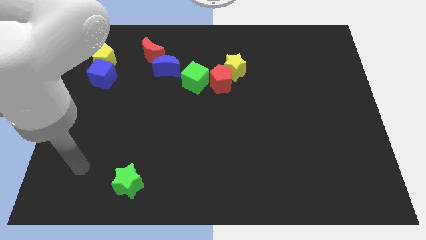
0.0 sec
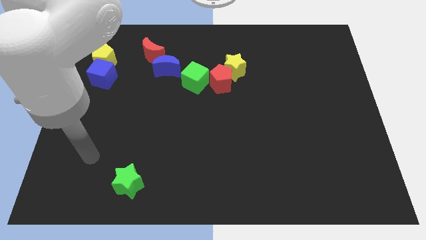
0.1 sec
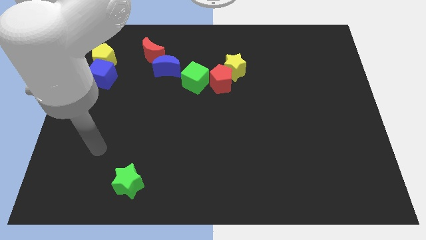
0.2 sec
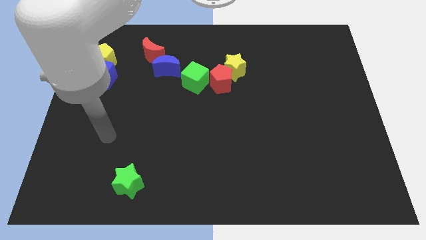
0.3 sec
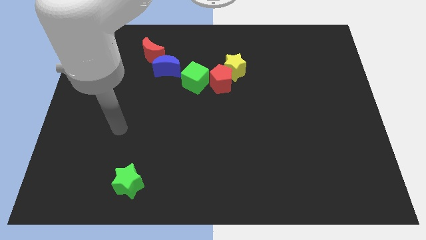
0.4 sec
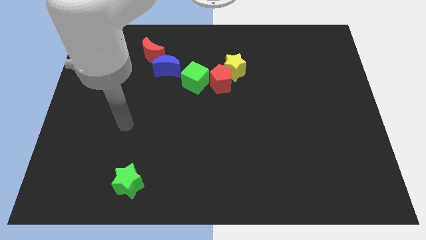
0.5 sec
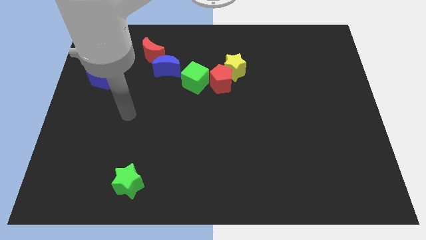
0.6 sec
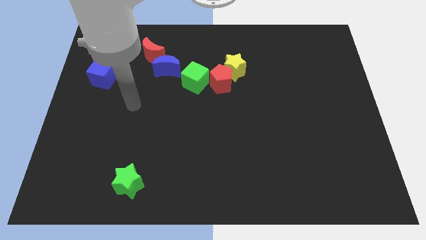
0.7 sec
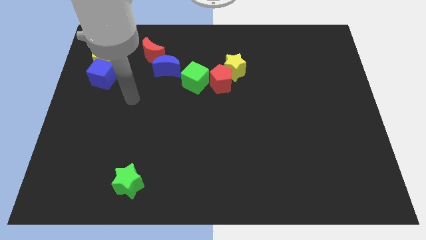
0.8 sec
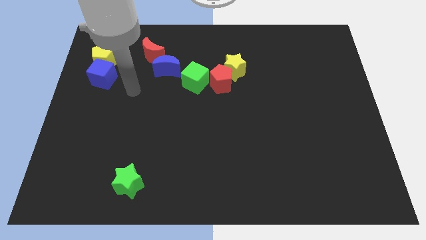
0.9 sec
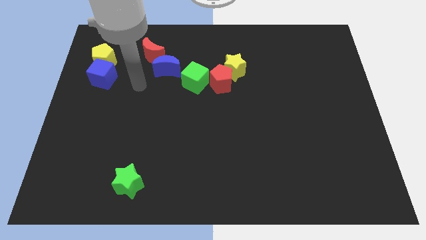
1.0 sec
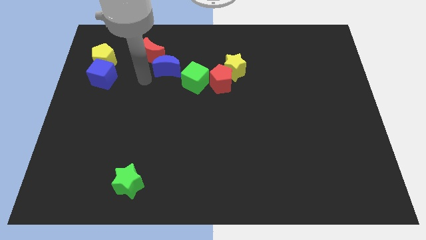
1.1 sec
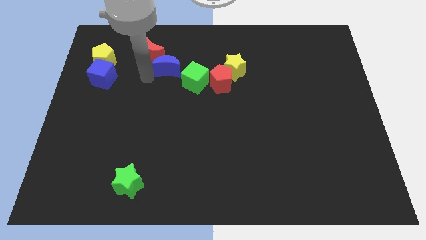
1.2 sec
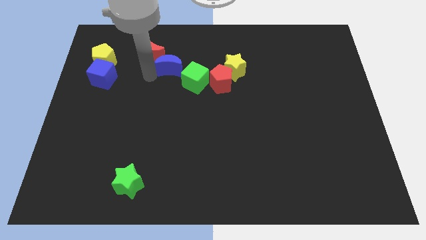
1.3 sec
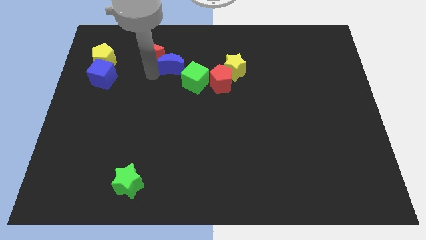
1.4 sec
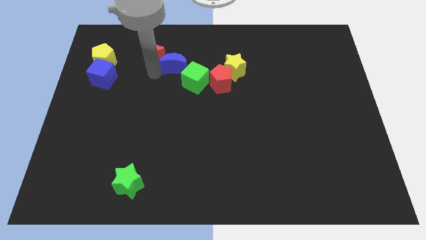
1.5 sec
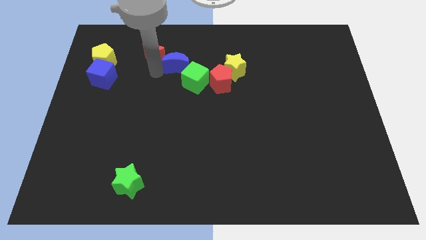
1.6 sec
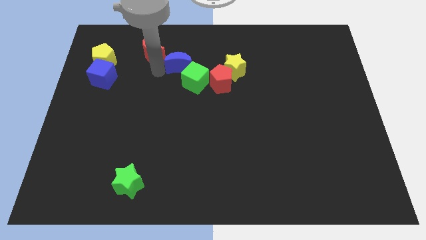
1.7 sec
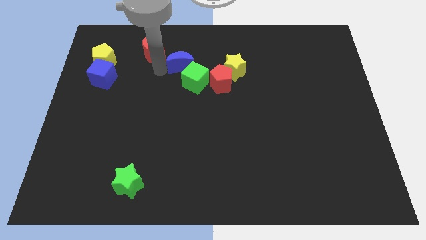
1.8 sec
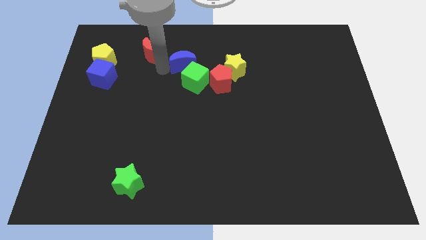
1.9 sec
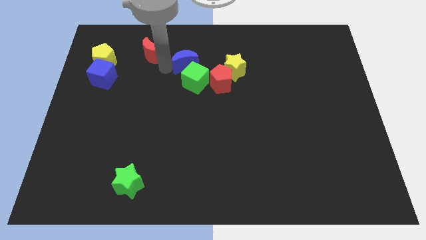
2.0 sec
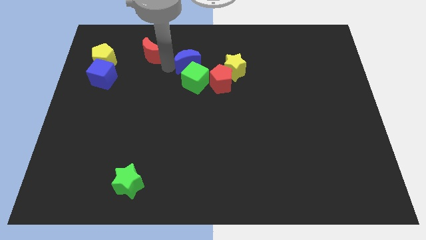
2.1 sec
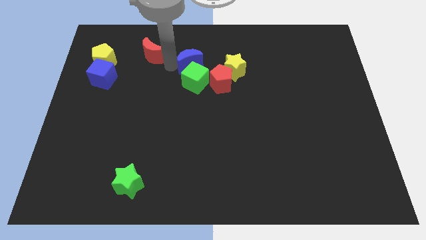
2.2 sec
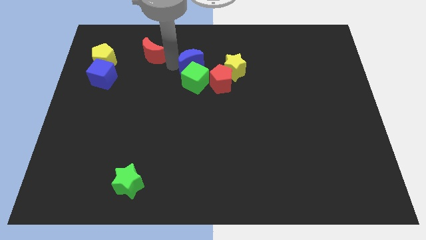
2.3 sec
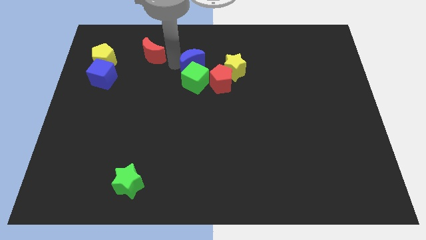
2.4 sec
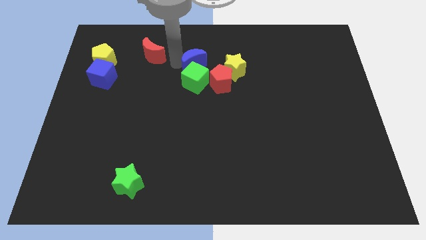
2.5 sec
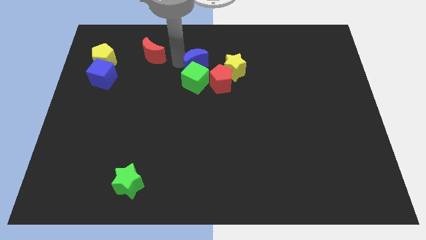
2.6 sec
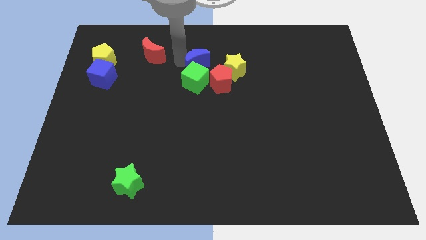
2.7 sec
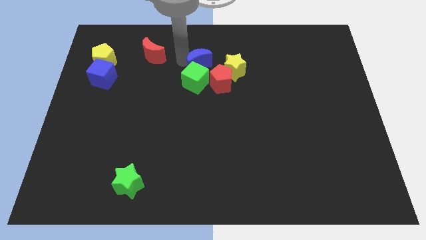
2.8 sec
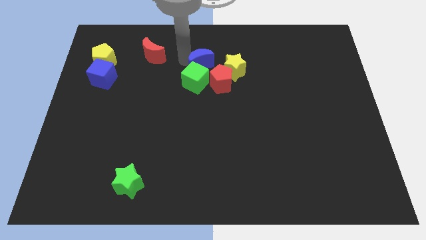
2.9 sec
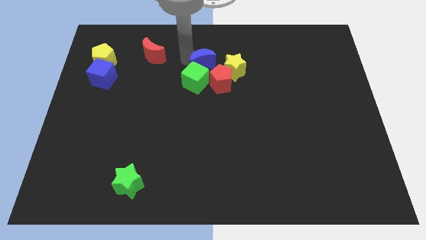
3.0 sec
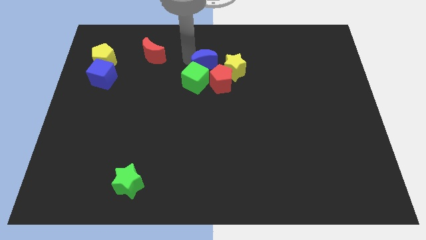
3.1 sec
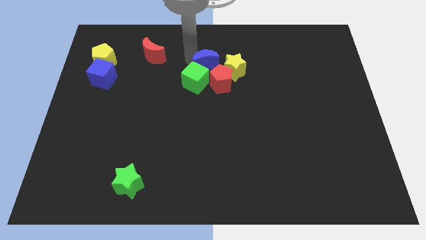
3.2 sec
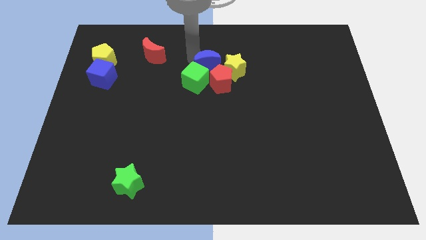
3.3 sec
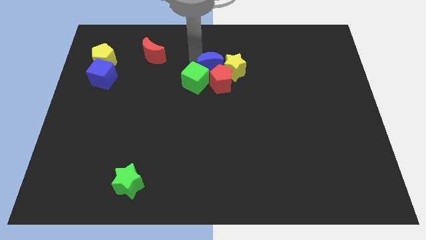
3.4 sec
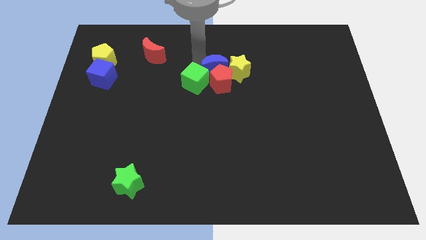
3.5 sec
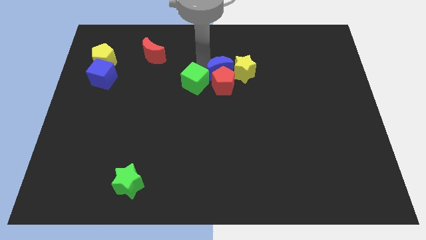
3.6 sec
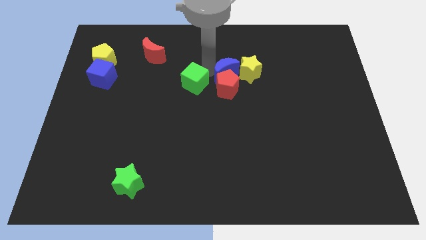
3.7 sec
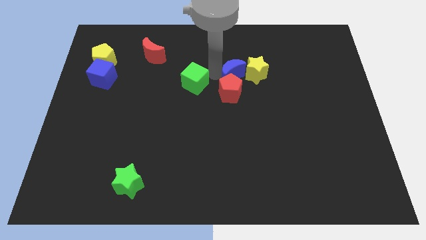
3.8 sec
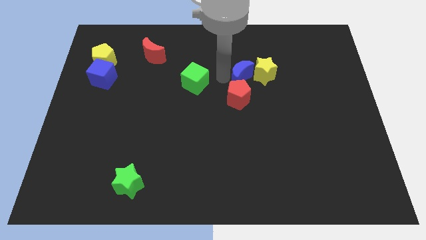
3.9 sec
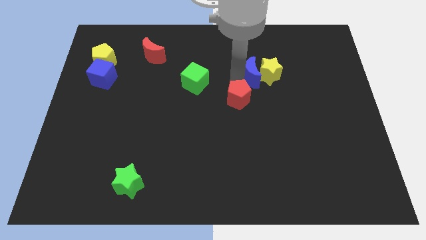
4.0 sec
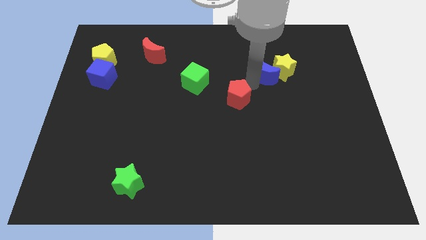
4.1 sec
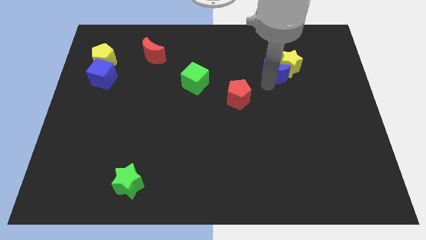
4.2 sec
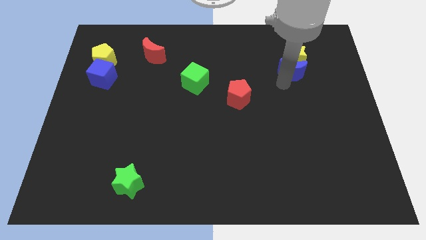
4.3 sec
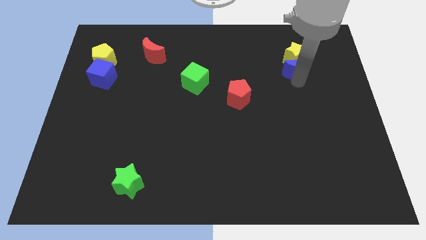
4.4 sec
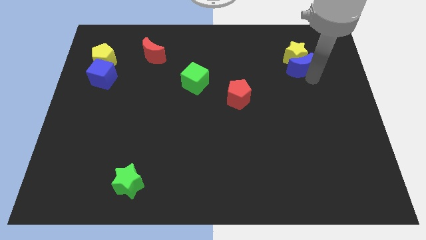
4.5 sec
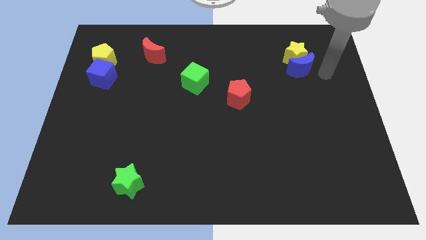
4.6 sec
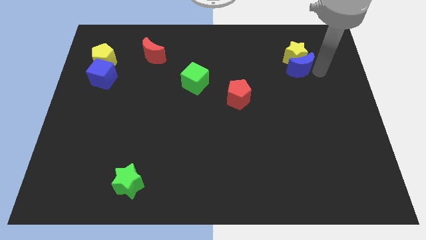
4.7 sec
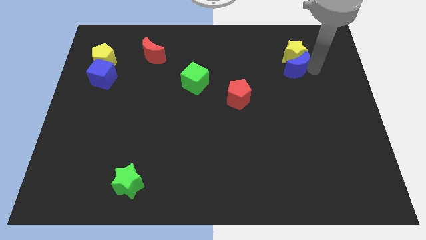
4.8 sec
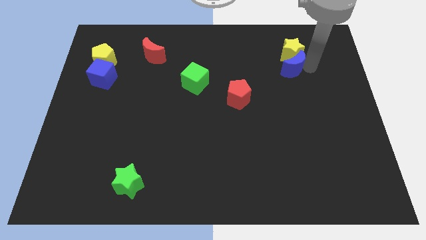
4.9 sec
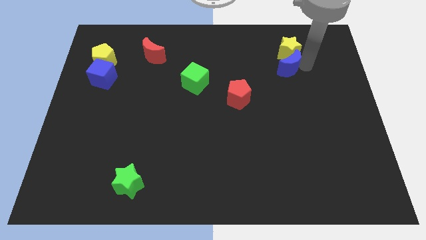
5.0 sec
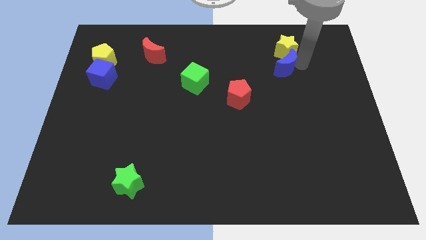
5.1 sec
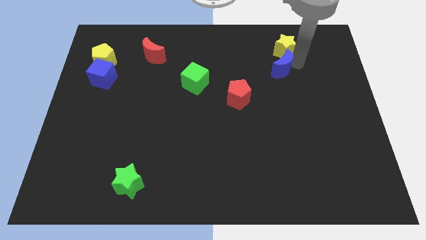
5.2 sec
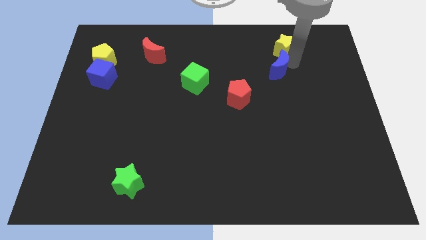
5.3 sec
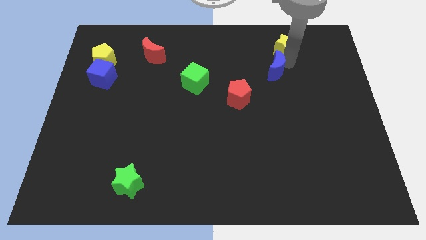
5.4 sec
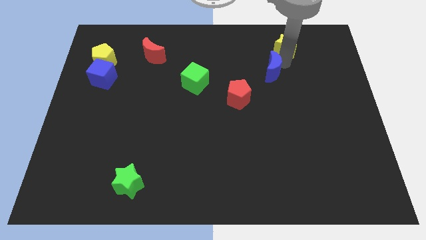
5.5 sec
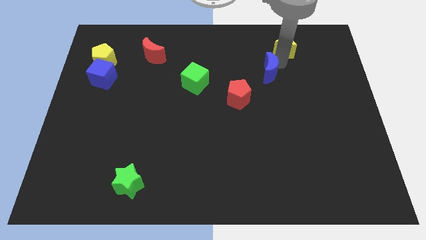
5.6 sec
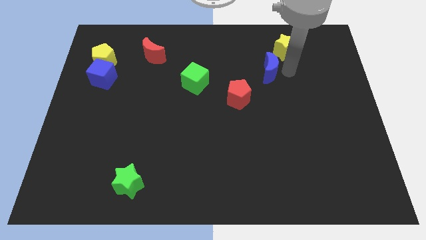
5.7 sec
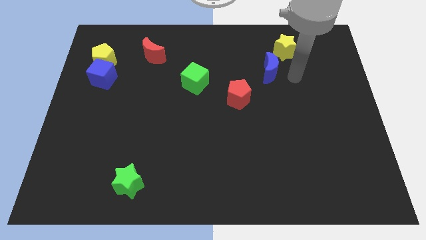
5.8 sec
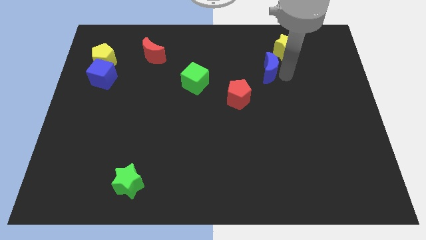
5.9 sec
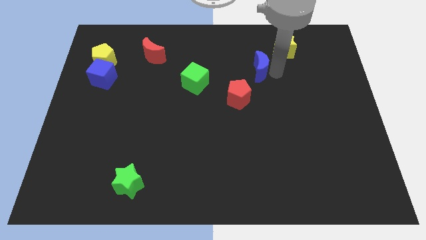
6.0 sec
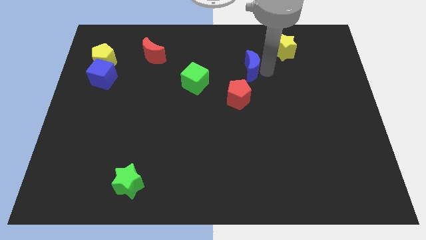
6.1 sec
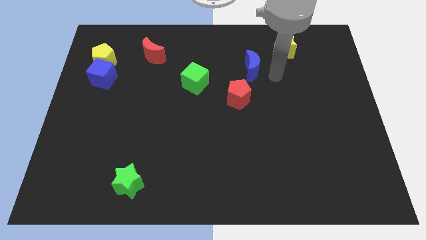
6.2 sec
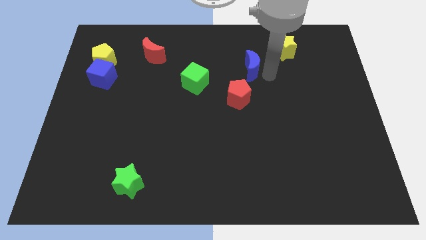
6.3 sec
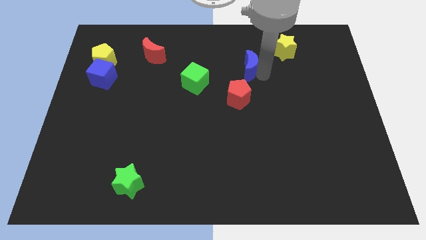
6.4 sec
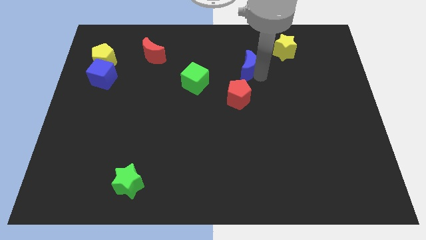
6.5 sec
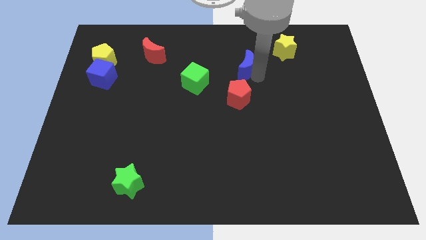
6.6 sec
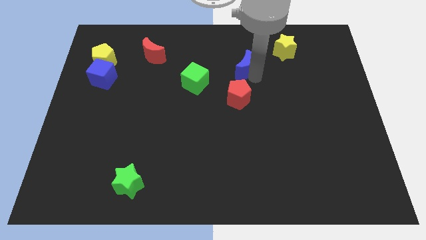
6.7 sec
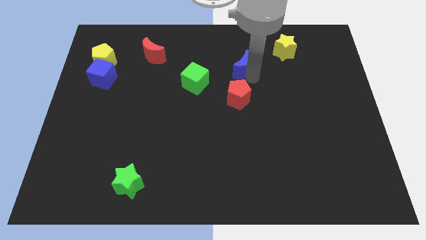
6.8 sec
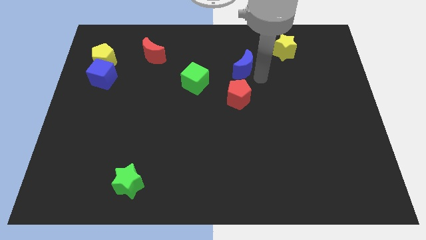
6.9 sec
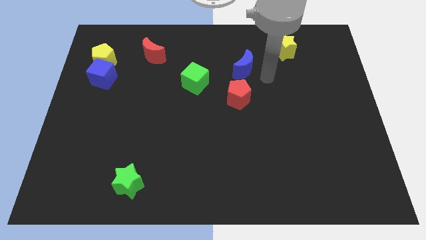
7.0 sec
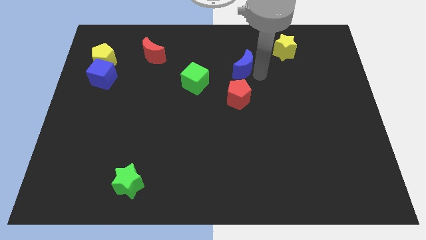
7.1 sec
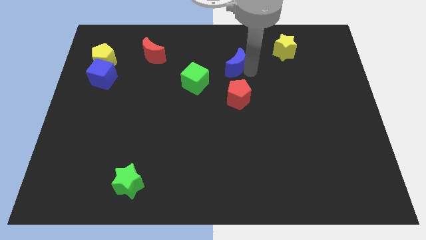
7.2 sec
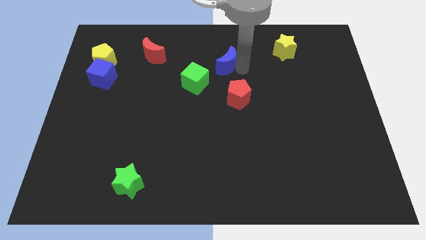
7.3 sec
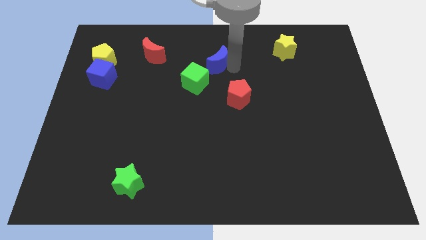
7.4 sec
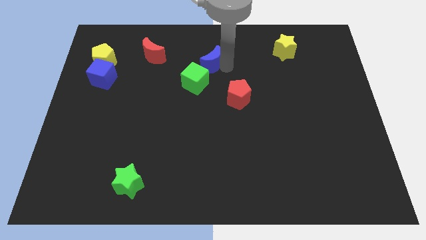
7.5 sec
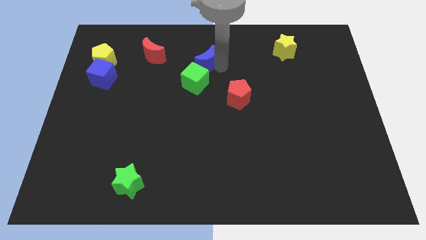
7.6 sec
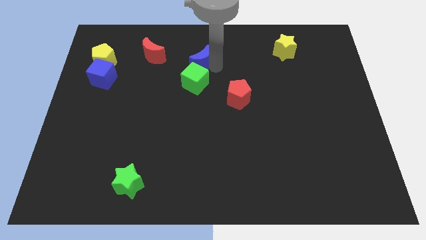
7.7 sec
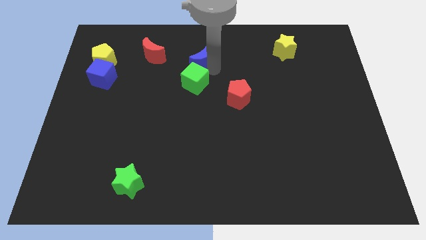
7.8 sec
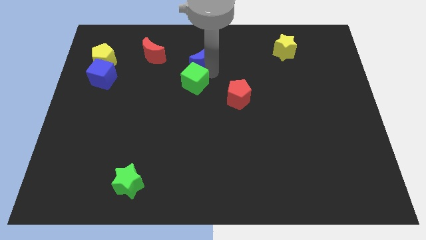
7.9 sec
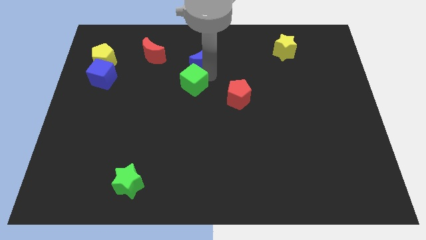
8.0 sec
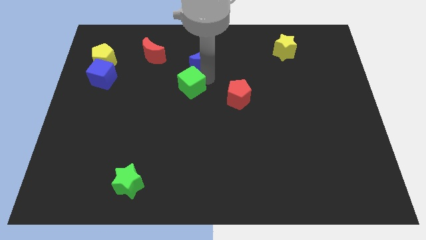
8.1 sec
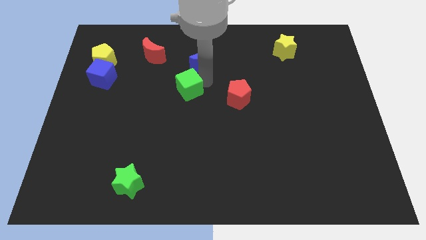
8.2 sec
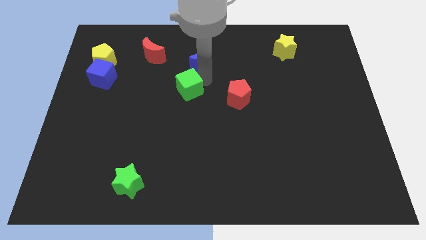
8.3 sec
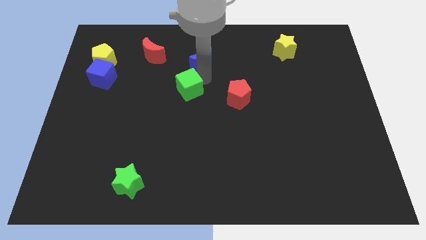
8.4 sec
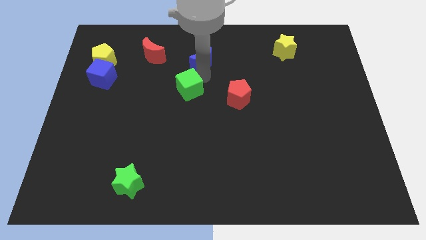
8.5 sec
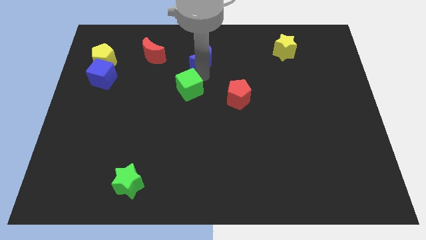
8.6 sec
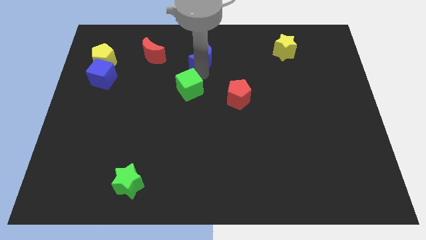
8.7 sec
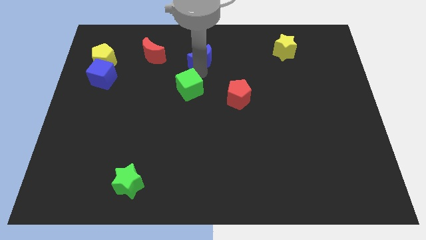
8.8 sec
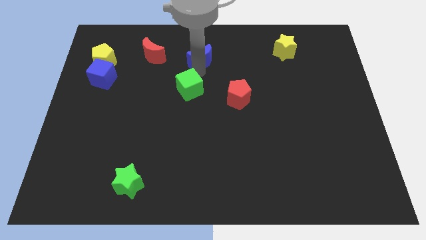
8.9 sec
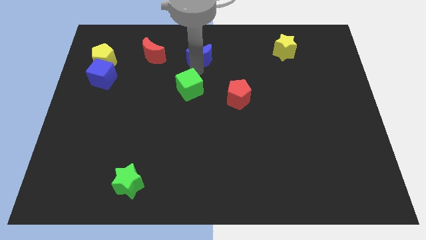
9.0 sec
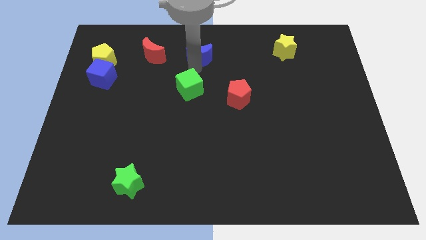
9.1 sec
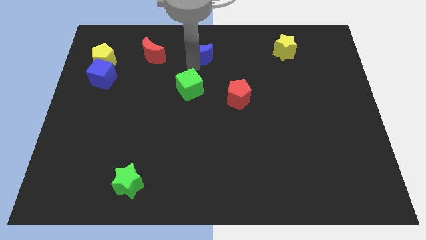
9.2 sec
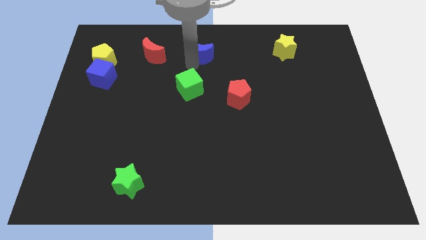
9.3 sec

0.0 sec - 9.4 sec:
slide the blue moon to the top side
